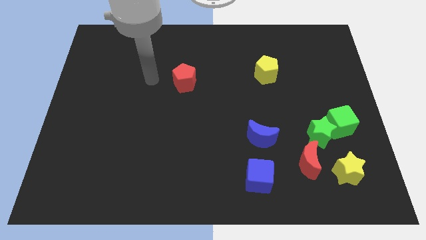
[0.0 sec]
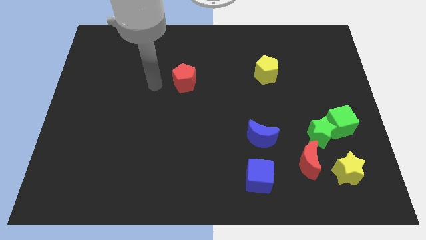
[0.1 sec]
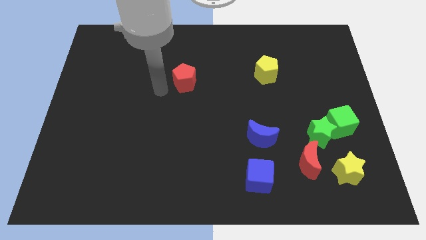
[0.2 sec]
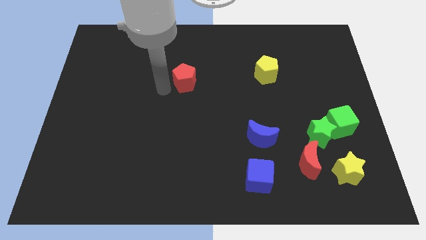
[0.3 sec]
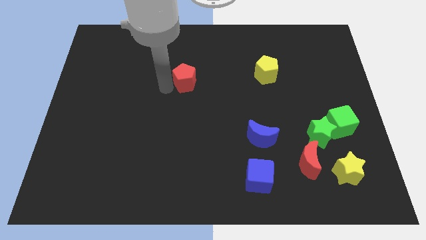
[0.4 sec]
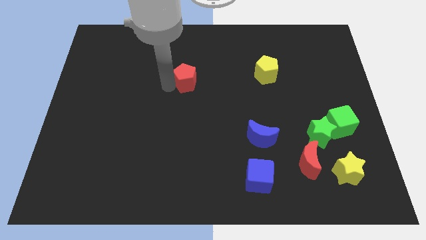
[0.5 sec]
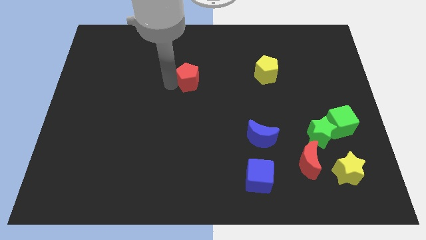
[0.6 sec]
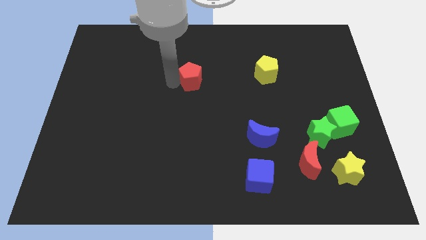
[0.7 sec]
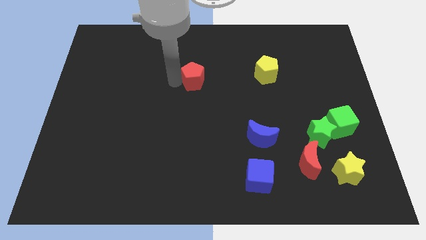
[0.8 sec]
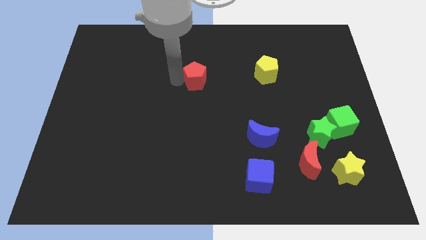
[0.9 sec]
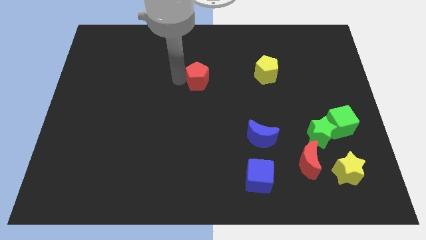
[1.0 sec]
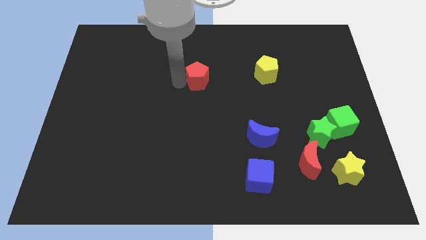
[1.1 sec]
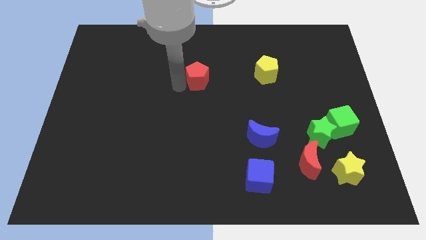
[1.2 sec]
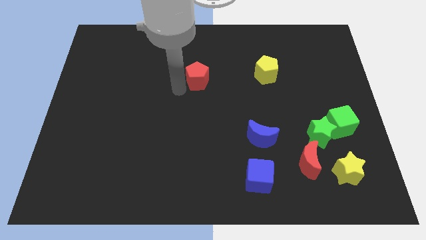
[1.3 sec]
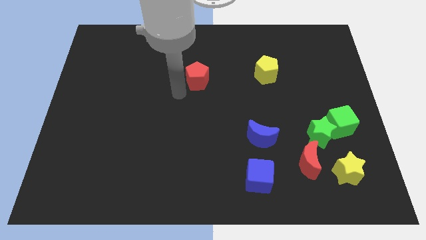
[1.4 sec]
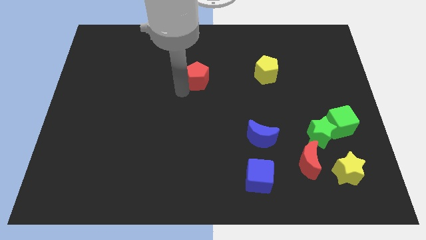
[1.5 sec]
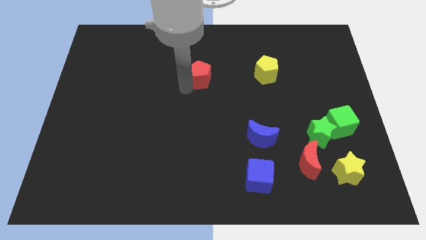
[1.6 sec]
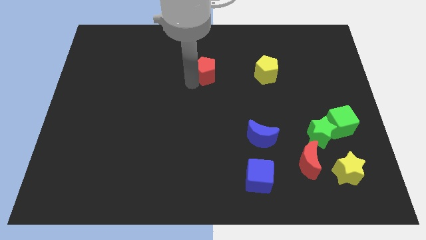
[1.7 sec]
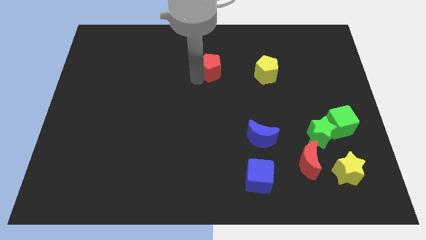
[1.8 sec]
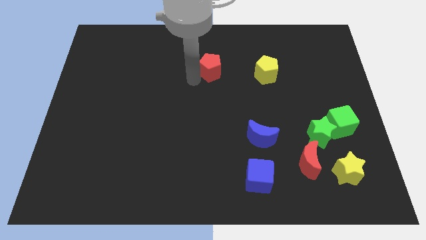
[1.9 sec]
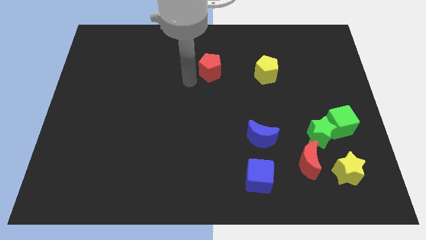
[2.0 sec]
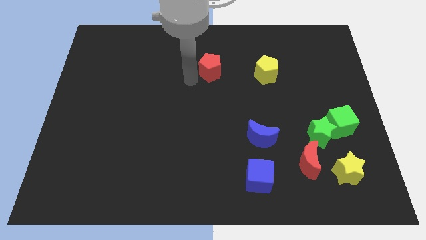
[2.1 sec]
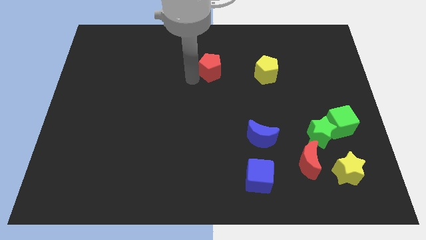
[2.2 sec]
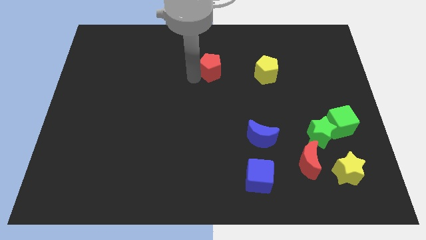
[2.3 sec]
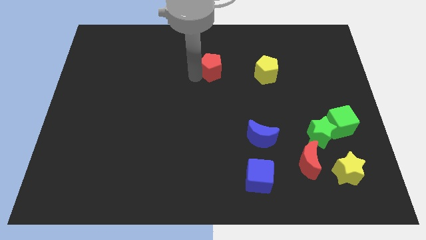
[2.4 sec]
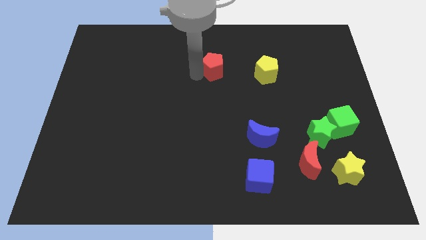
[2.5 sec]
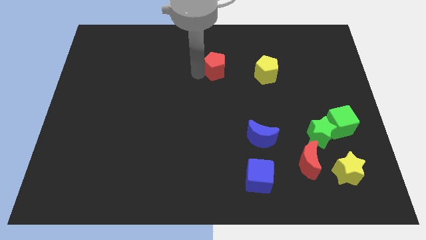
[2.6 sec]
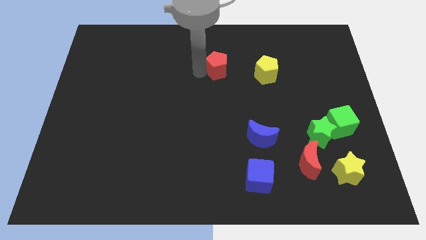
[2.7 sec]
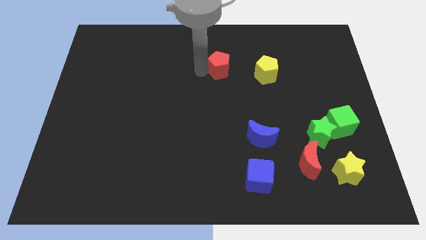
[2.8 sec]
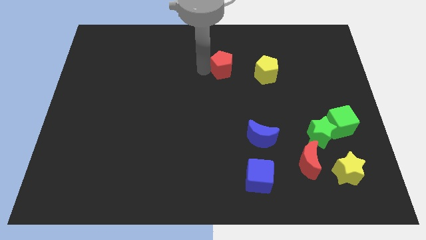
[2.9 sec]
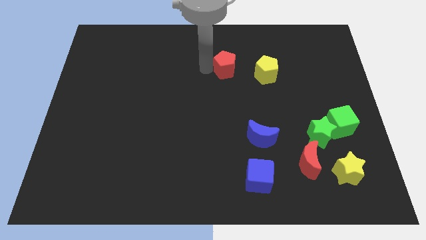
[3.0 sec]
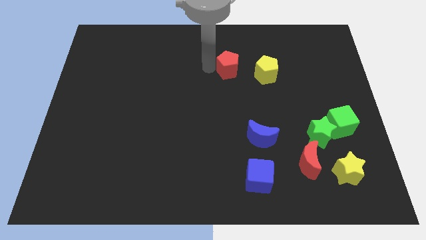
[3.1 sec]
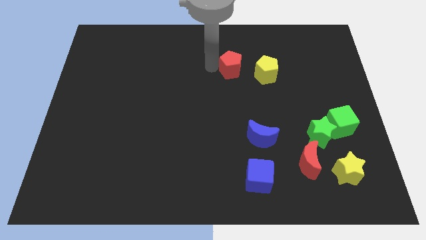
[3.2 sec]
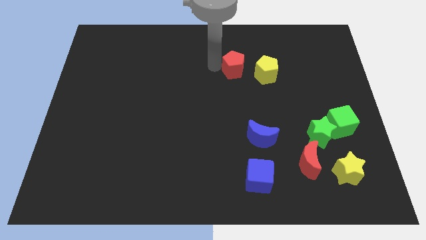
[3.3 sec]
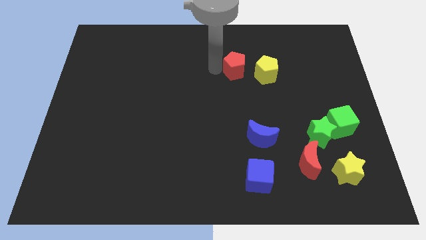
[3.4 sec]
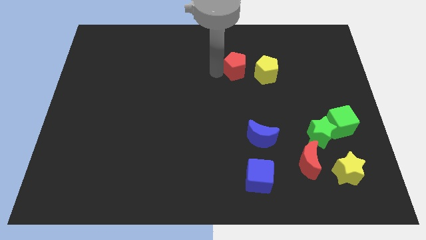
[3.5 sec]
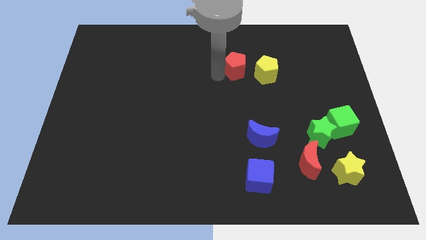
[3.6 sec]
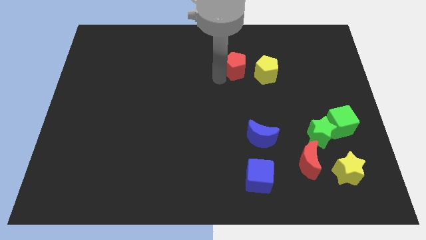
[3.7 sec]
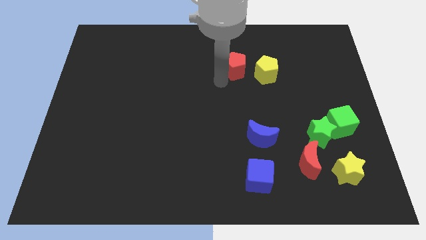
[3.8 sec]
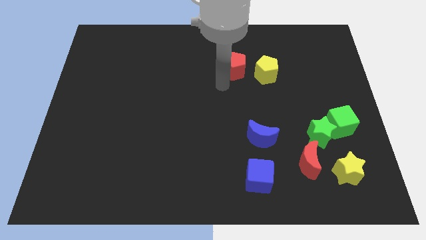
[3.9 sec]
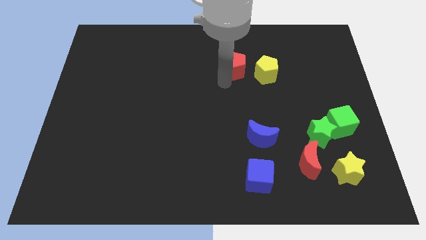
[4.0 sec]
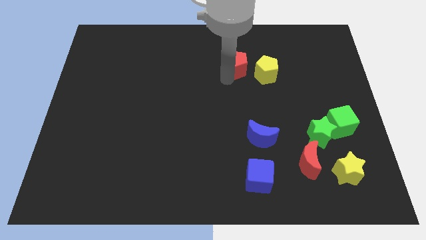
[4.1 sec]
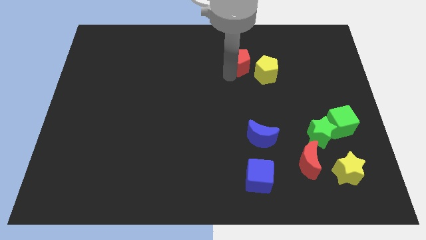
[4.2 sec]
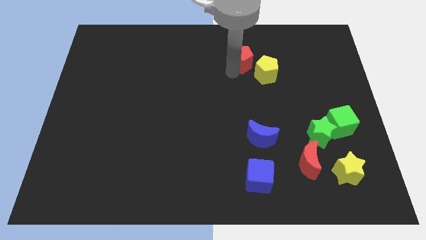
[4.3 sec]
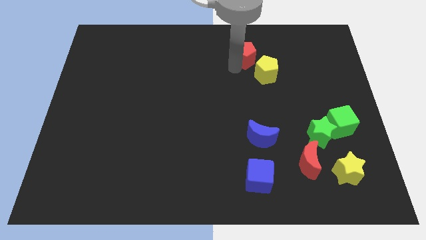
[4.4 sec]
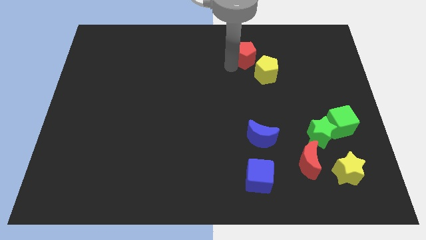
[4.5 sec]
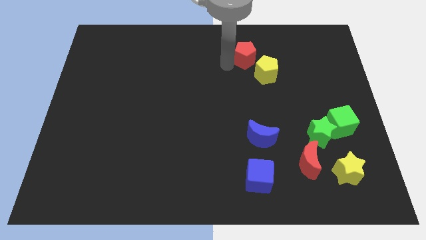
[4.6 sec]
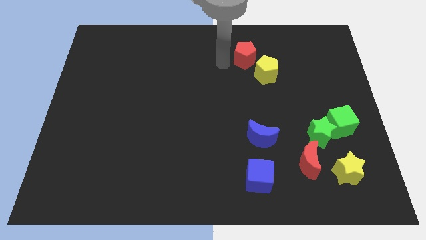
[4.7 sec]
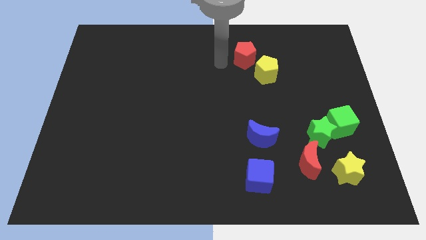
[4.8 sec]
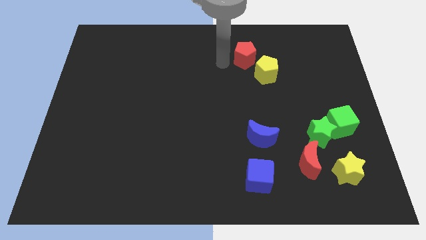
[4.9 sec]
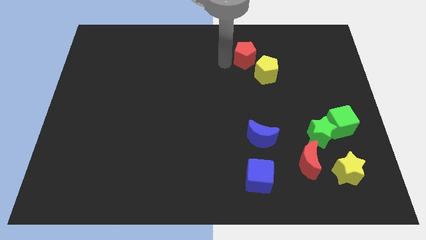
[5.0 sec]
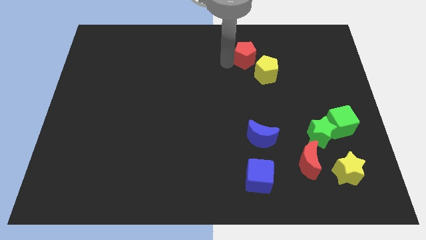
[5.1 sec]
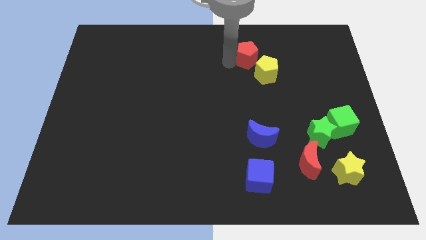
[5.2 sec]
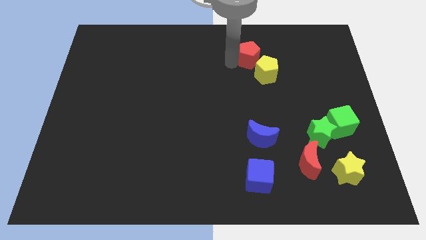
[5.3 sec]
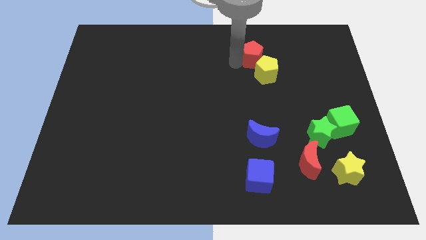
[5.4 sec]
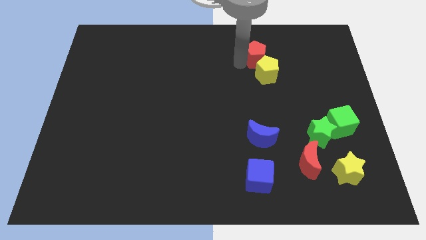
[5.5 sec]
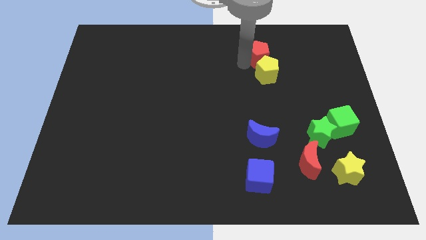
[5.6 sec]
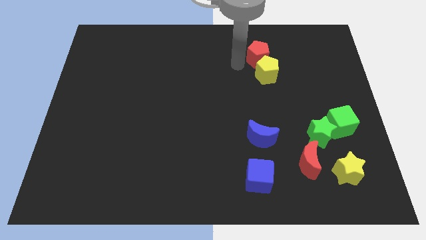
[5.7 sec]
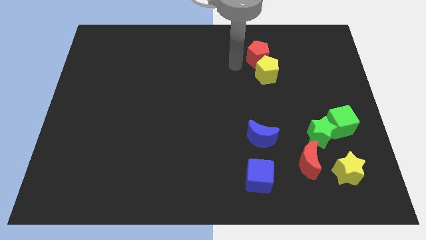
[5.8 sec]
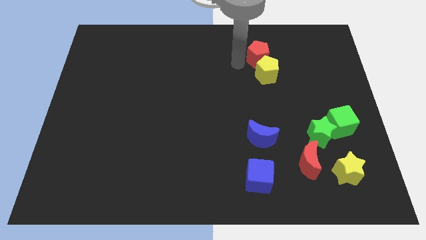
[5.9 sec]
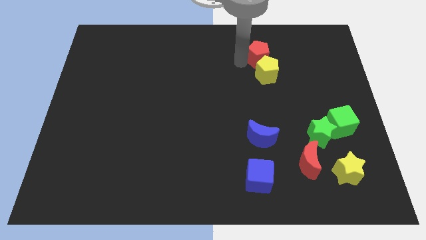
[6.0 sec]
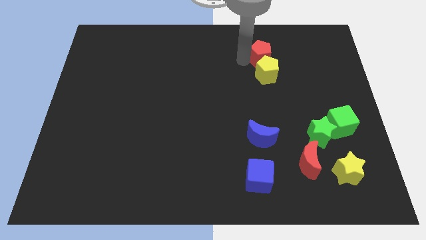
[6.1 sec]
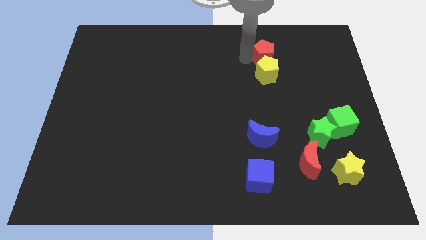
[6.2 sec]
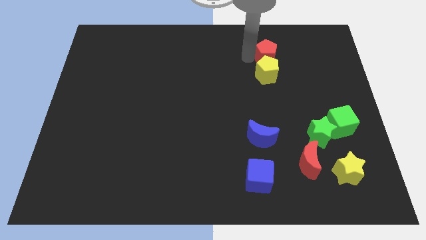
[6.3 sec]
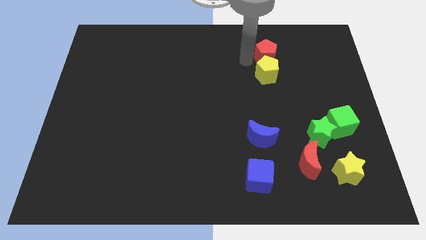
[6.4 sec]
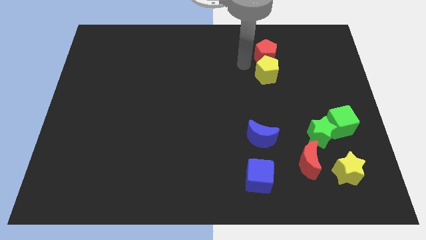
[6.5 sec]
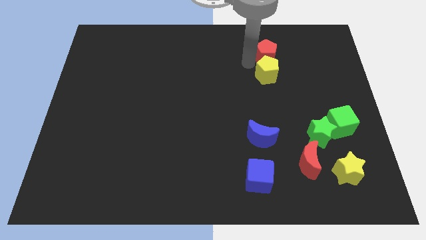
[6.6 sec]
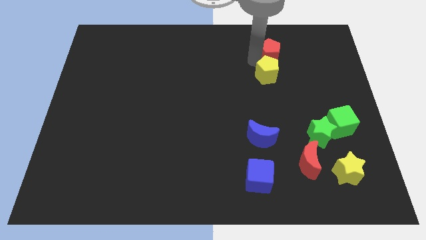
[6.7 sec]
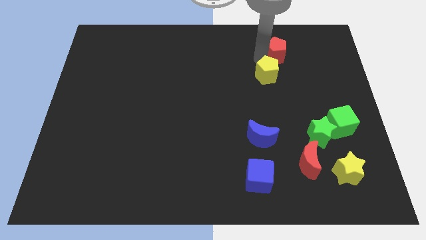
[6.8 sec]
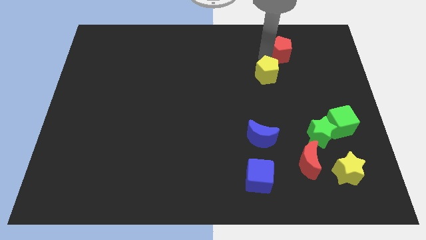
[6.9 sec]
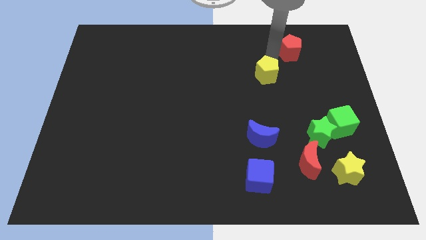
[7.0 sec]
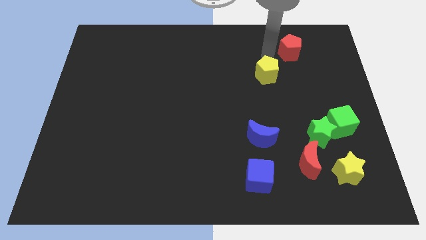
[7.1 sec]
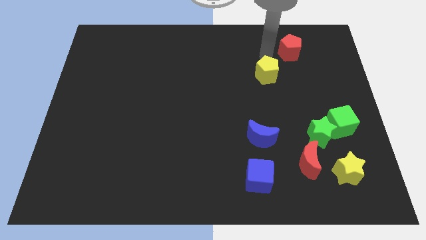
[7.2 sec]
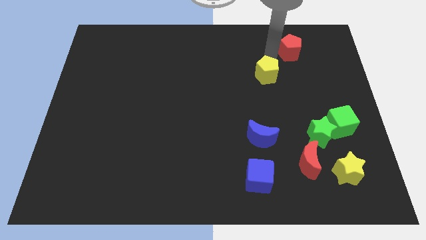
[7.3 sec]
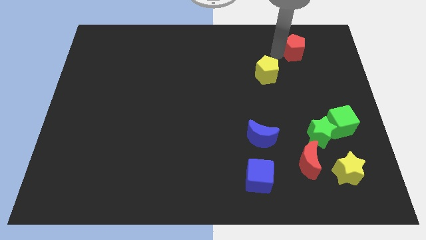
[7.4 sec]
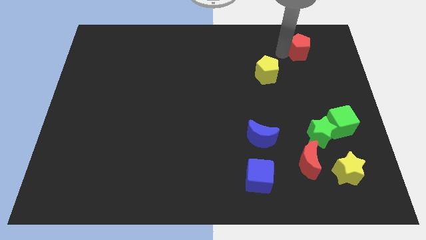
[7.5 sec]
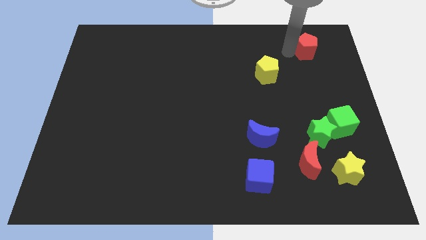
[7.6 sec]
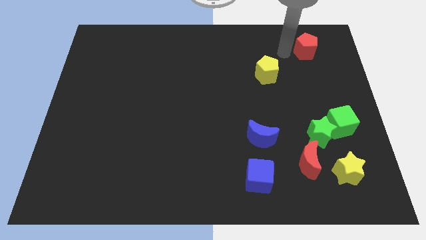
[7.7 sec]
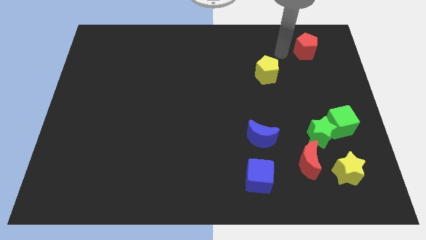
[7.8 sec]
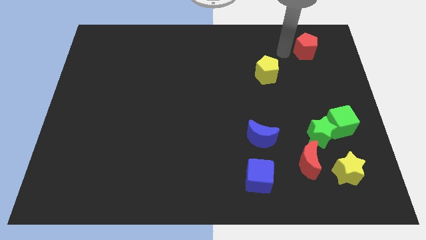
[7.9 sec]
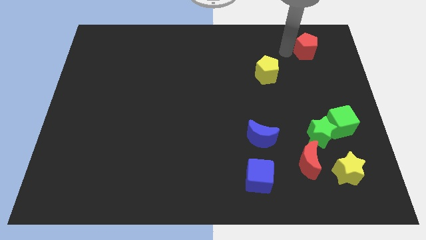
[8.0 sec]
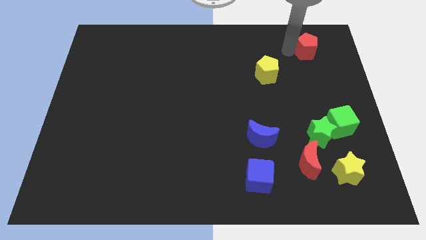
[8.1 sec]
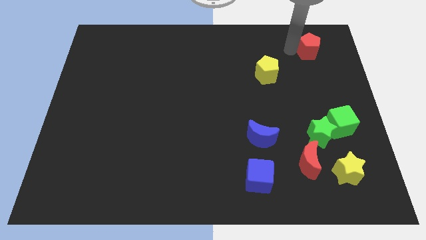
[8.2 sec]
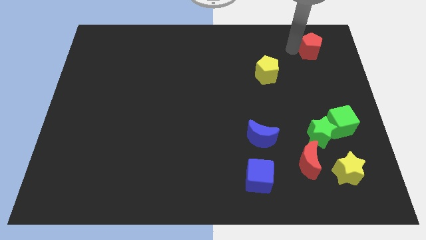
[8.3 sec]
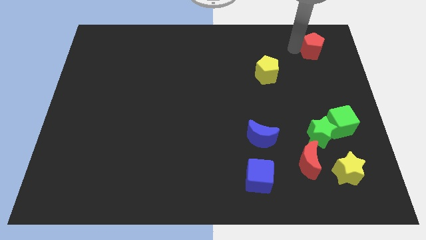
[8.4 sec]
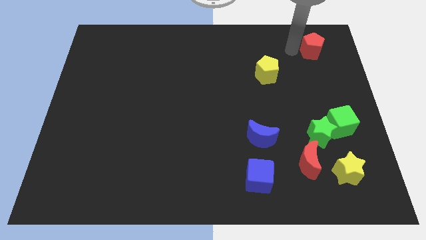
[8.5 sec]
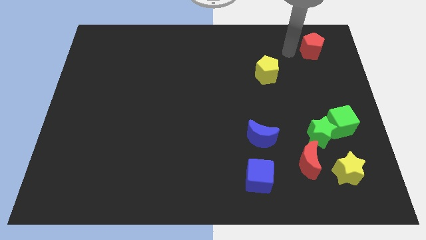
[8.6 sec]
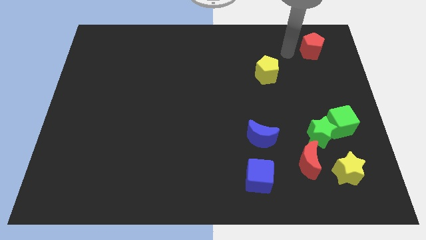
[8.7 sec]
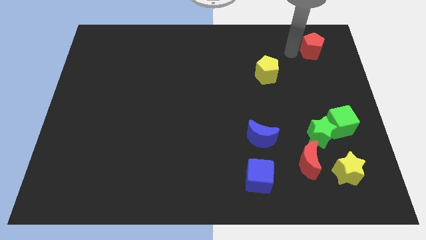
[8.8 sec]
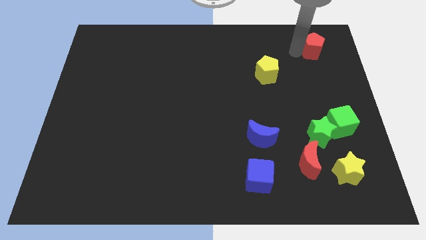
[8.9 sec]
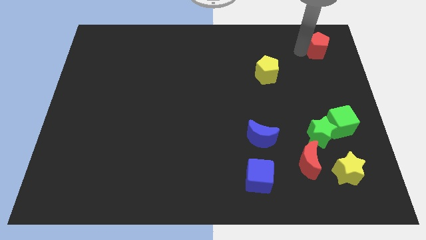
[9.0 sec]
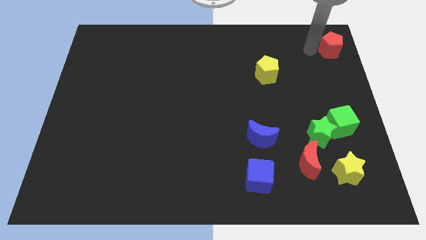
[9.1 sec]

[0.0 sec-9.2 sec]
put the red pentagon to the top right of the board
